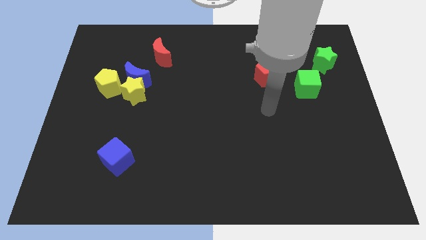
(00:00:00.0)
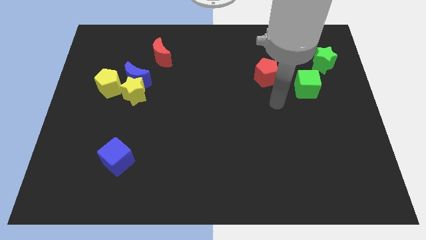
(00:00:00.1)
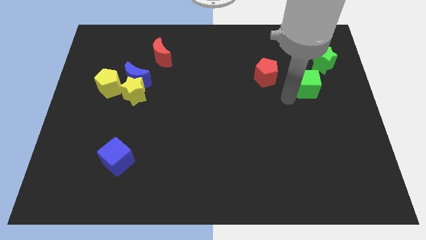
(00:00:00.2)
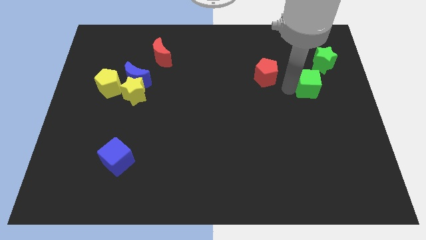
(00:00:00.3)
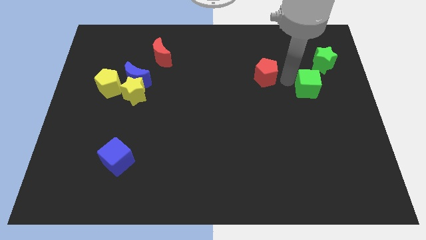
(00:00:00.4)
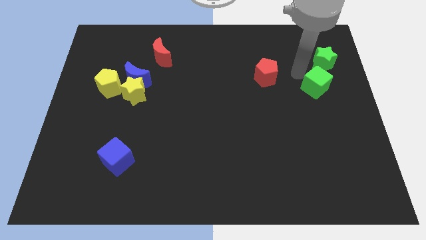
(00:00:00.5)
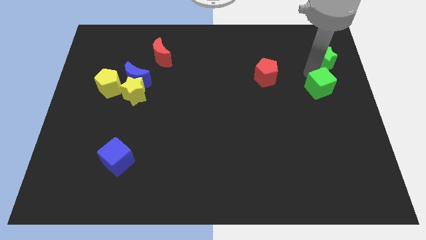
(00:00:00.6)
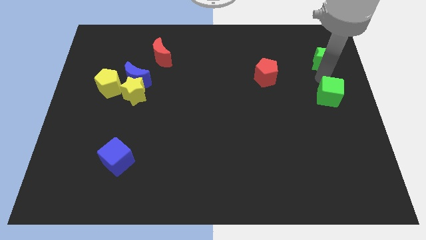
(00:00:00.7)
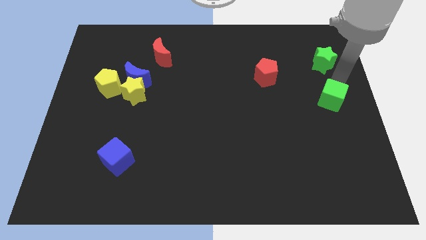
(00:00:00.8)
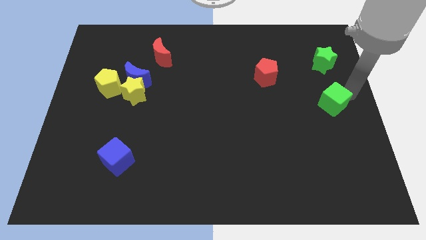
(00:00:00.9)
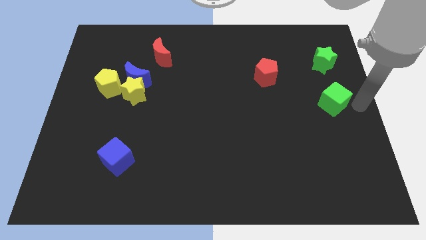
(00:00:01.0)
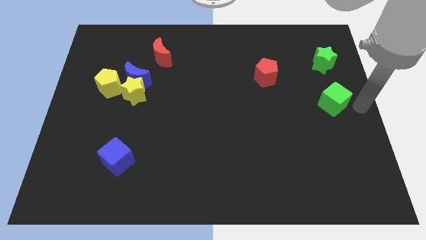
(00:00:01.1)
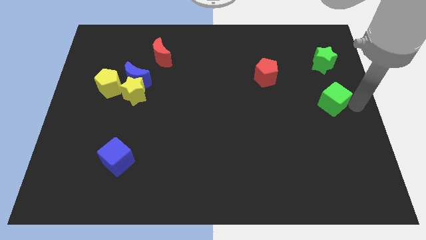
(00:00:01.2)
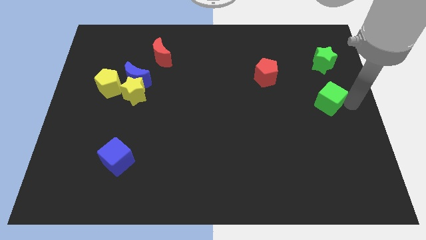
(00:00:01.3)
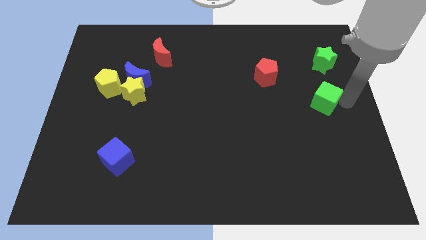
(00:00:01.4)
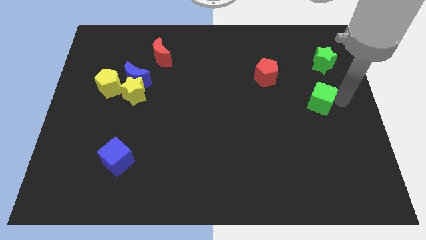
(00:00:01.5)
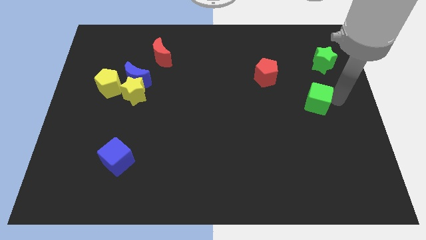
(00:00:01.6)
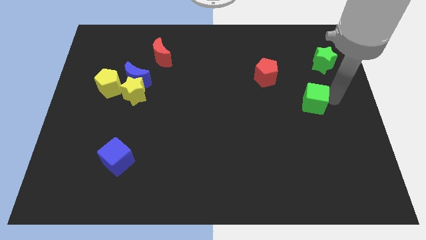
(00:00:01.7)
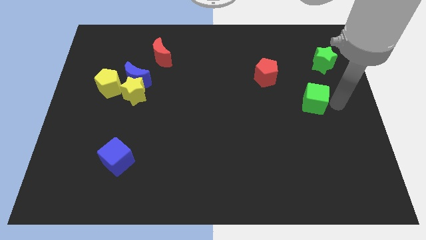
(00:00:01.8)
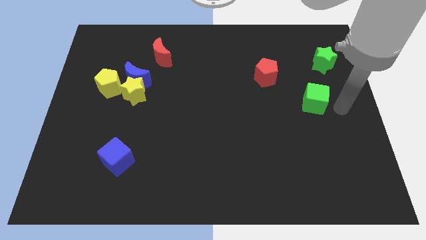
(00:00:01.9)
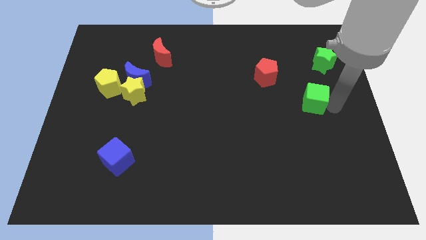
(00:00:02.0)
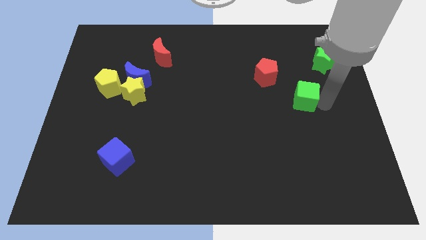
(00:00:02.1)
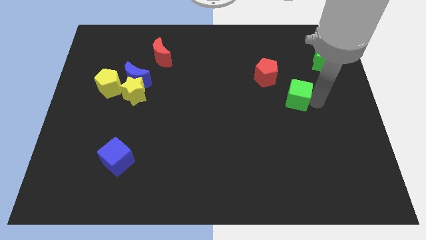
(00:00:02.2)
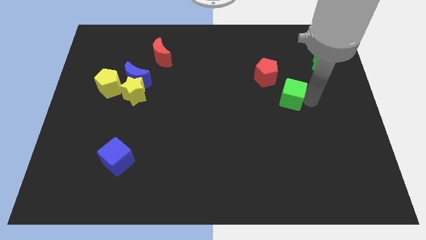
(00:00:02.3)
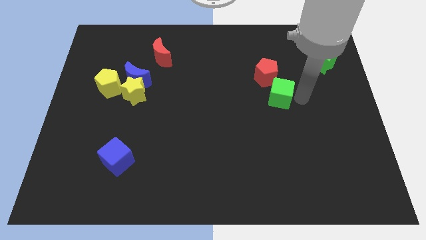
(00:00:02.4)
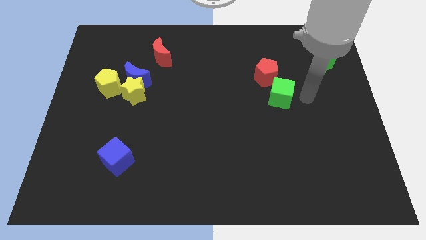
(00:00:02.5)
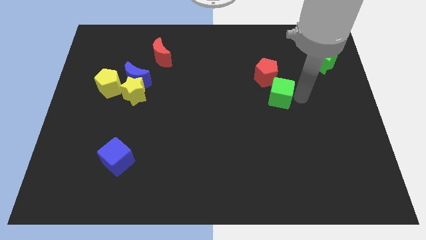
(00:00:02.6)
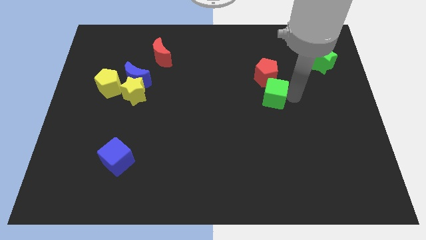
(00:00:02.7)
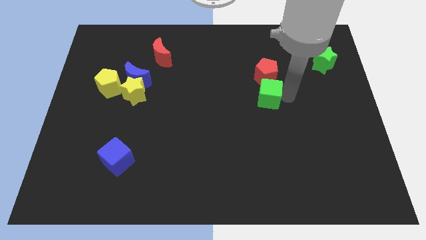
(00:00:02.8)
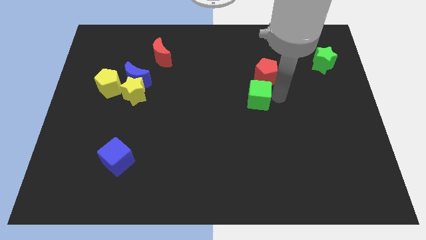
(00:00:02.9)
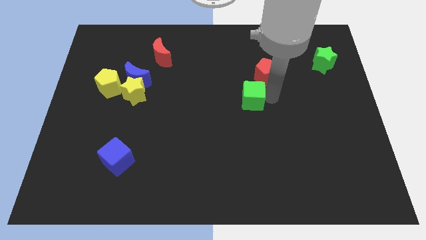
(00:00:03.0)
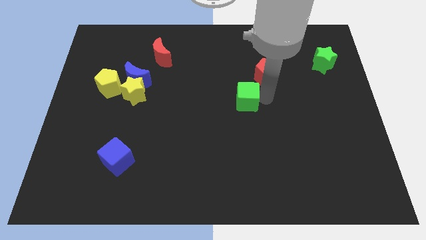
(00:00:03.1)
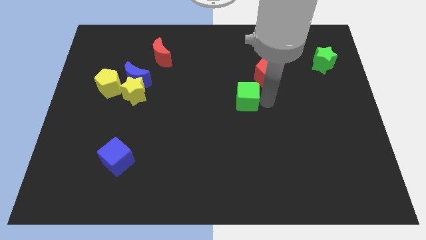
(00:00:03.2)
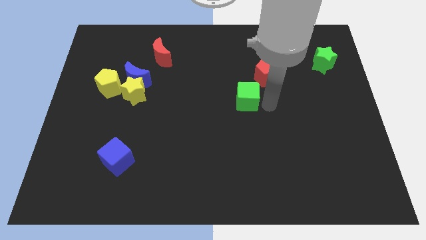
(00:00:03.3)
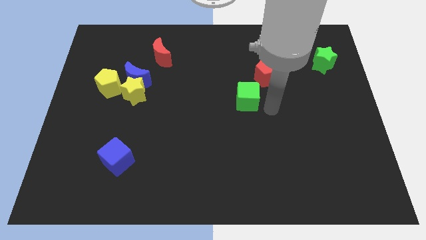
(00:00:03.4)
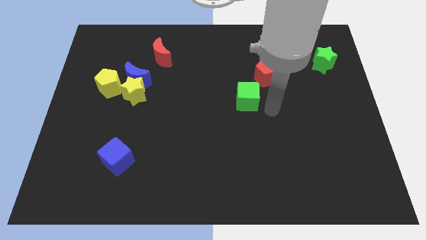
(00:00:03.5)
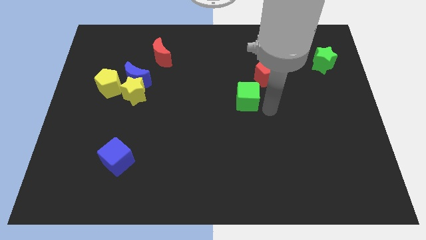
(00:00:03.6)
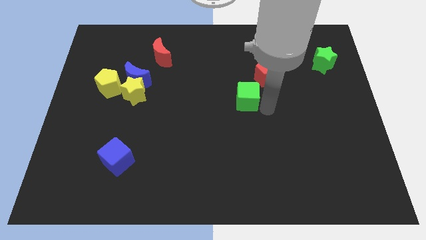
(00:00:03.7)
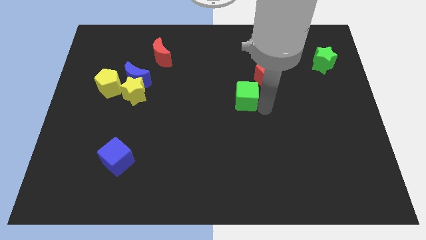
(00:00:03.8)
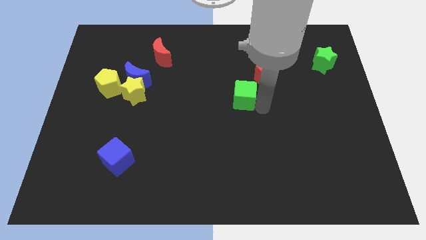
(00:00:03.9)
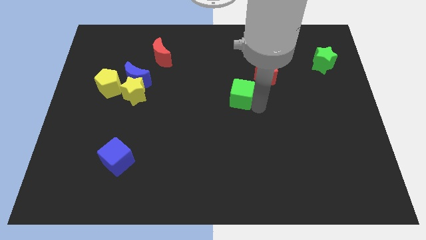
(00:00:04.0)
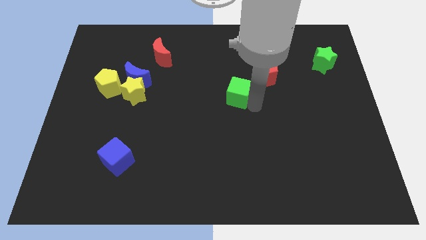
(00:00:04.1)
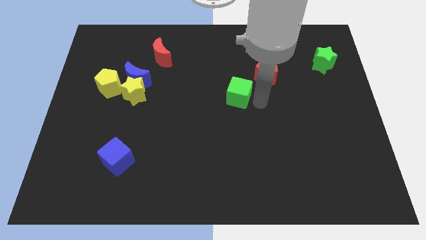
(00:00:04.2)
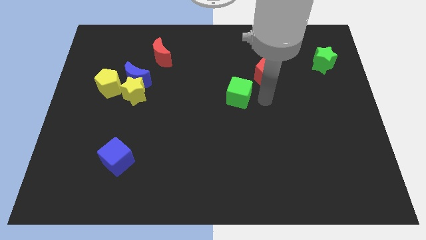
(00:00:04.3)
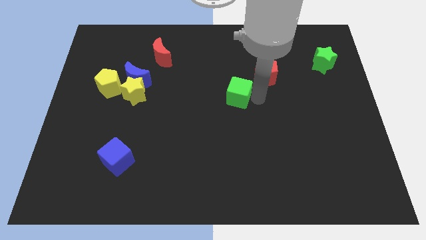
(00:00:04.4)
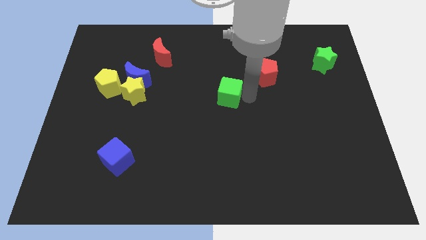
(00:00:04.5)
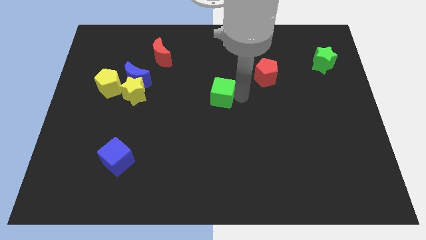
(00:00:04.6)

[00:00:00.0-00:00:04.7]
push the green cube to the left

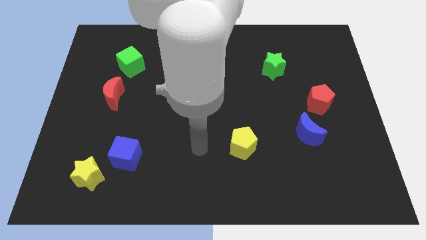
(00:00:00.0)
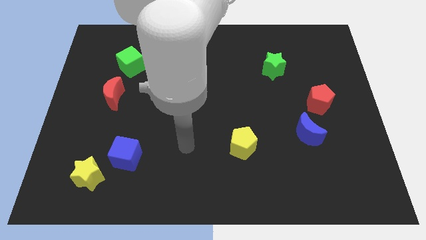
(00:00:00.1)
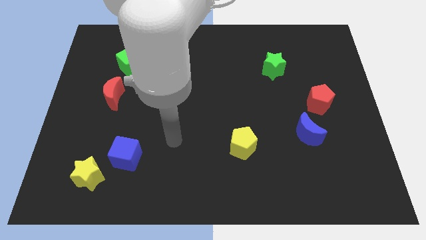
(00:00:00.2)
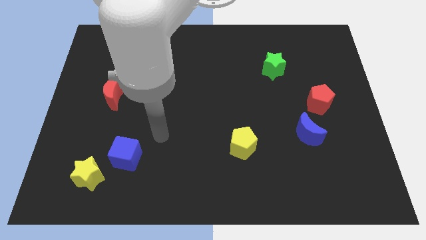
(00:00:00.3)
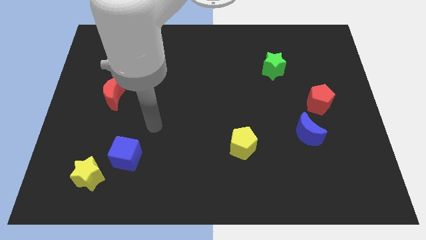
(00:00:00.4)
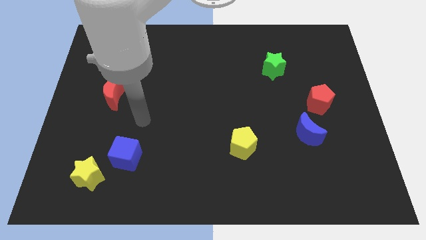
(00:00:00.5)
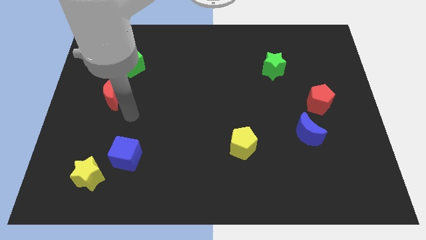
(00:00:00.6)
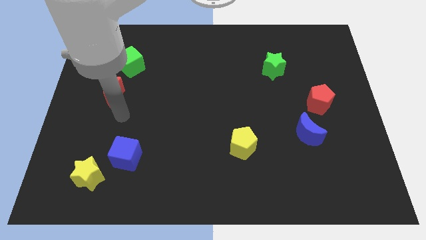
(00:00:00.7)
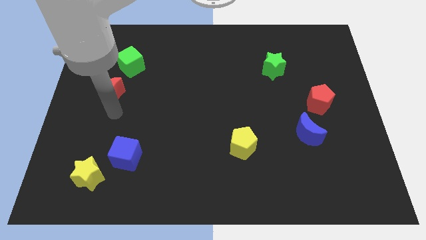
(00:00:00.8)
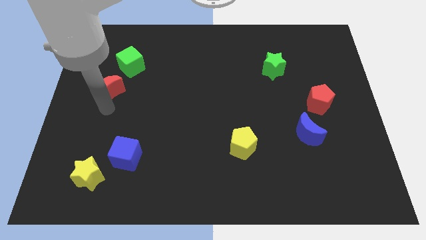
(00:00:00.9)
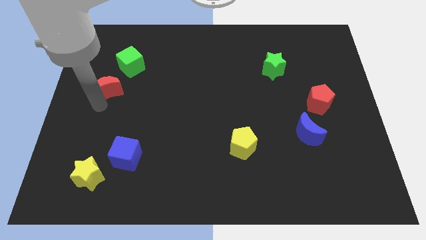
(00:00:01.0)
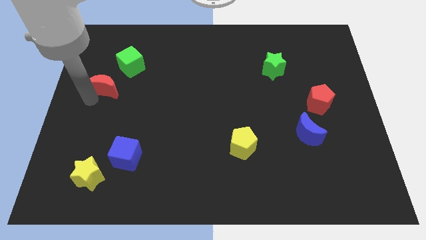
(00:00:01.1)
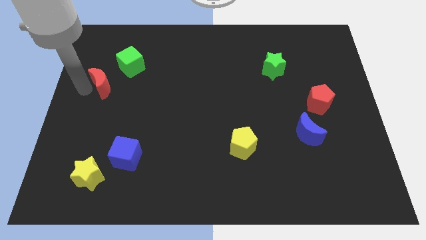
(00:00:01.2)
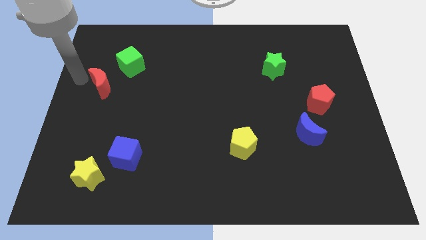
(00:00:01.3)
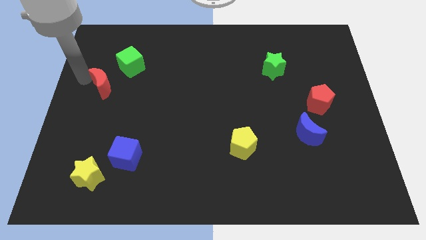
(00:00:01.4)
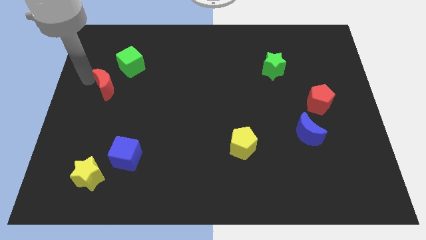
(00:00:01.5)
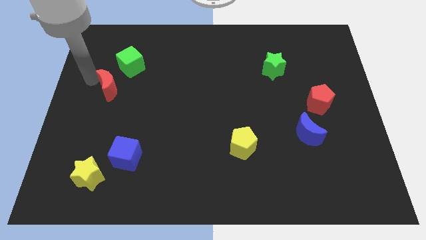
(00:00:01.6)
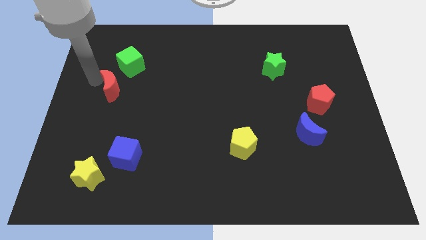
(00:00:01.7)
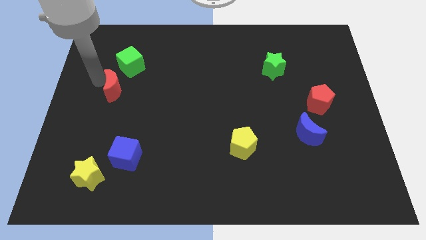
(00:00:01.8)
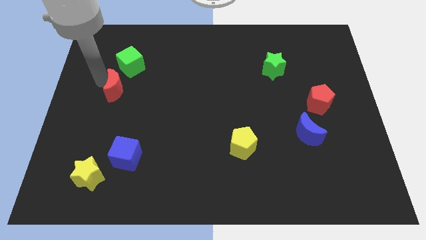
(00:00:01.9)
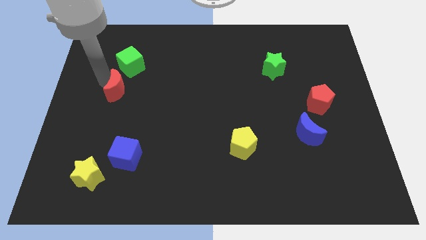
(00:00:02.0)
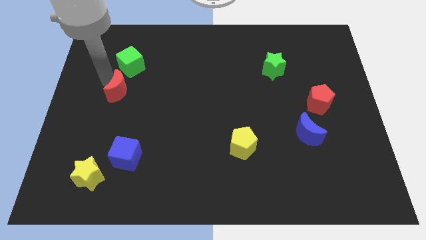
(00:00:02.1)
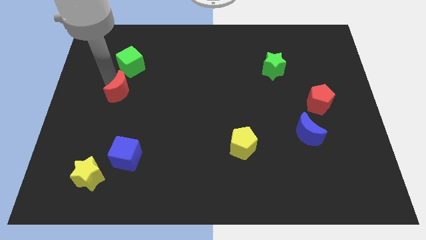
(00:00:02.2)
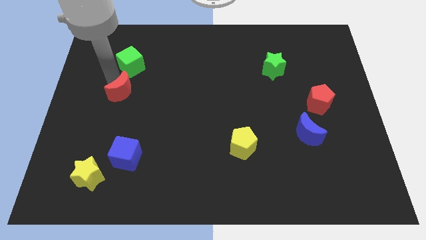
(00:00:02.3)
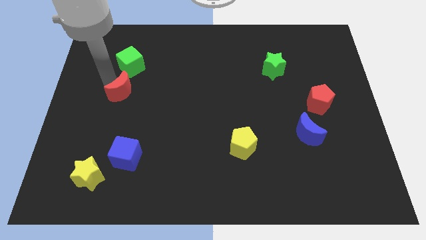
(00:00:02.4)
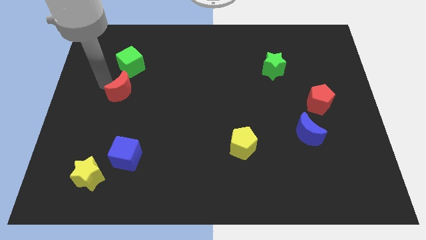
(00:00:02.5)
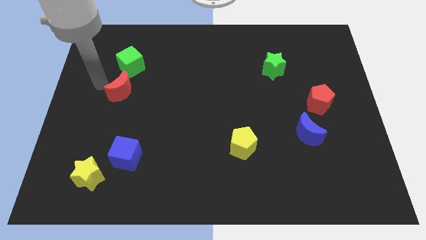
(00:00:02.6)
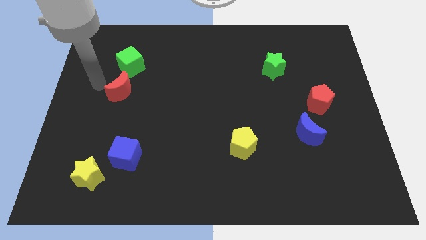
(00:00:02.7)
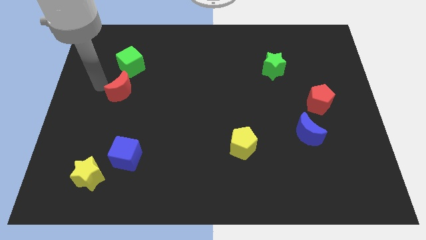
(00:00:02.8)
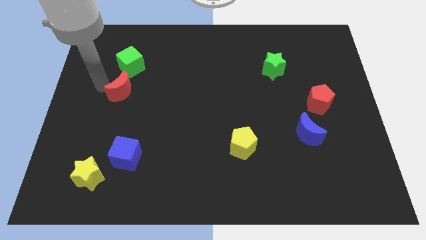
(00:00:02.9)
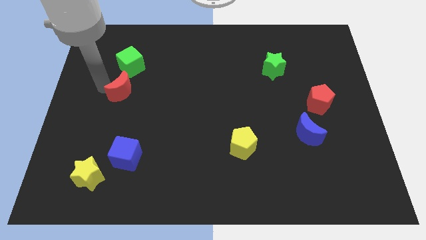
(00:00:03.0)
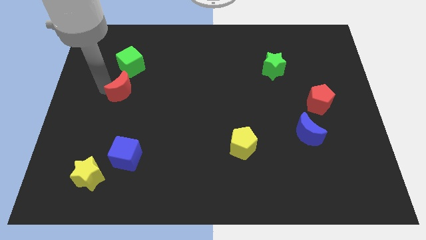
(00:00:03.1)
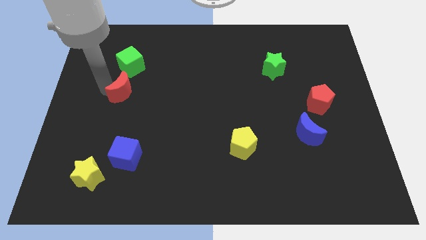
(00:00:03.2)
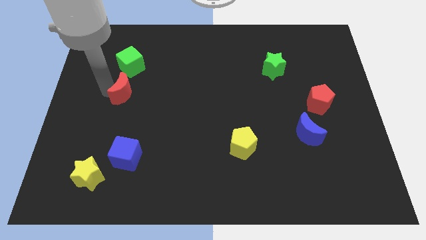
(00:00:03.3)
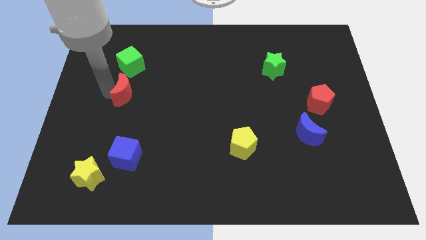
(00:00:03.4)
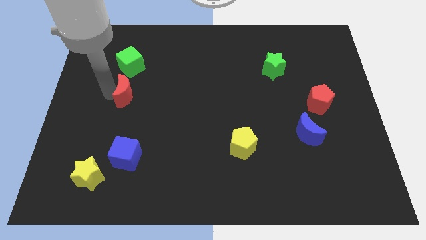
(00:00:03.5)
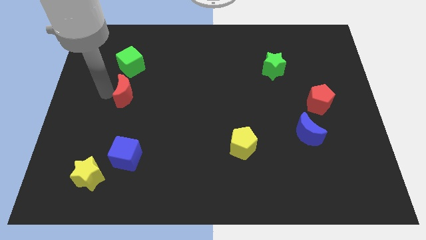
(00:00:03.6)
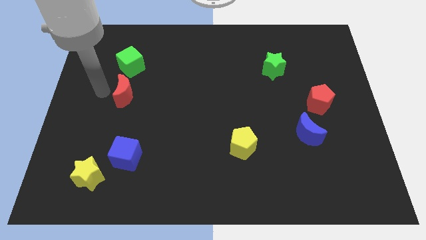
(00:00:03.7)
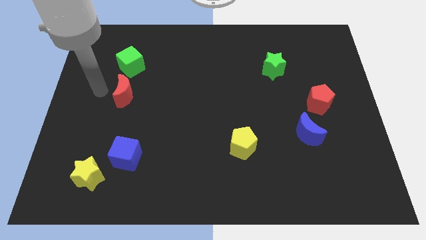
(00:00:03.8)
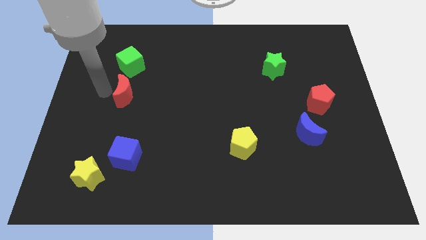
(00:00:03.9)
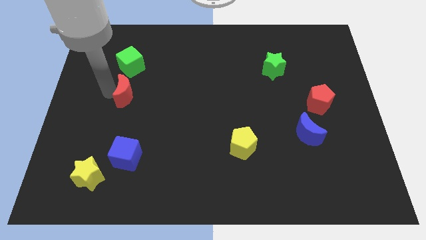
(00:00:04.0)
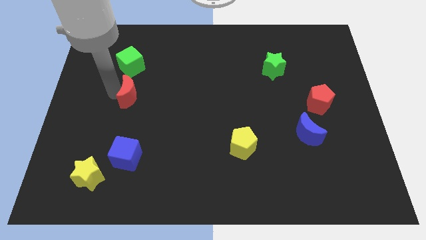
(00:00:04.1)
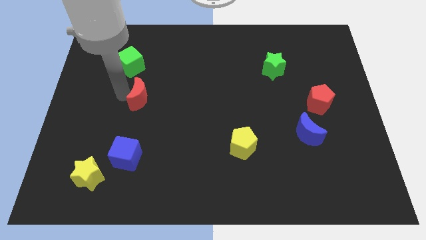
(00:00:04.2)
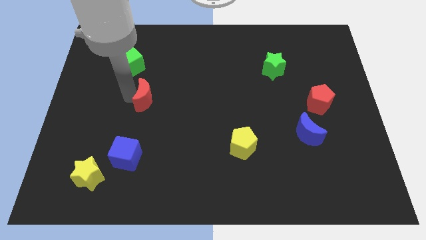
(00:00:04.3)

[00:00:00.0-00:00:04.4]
slightly move the red moon right
